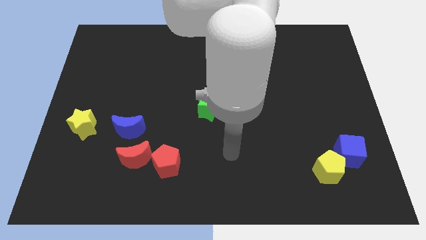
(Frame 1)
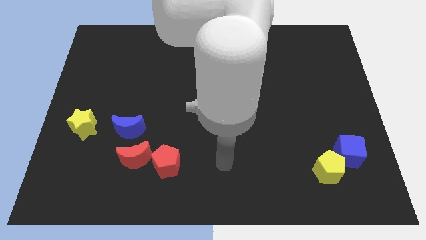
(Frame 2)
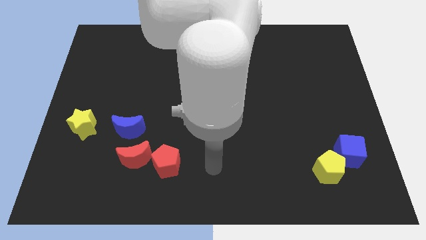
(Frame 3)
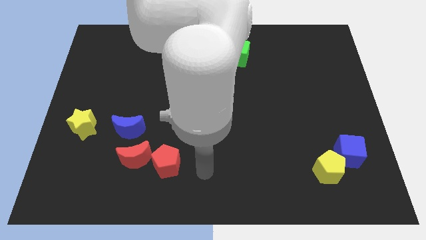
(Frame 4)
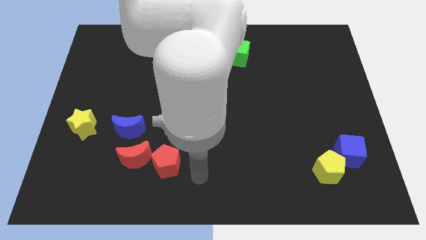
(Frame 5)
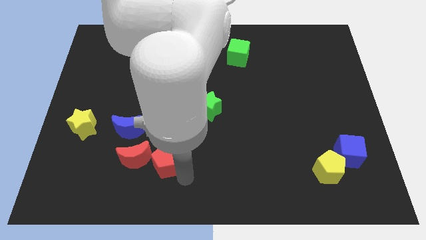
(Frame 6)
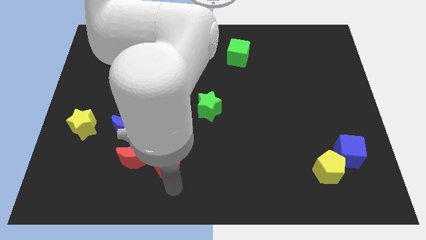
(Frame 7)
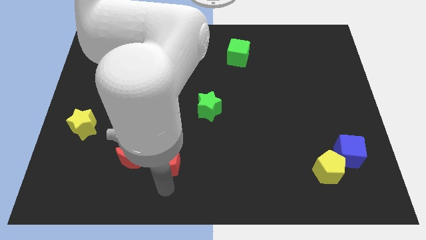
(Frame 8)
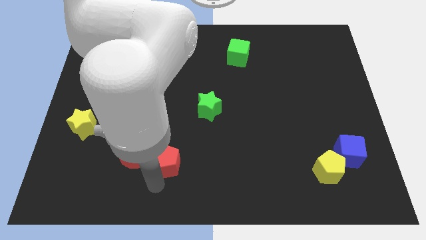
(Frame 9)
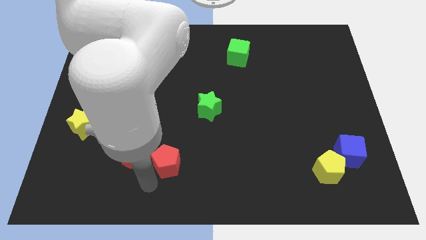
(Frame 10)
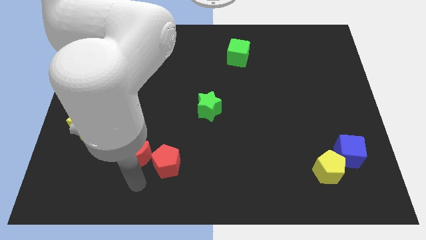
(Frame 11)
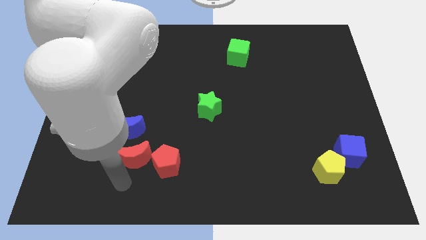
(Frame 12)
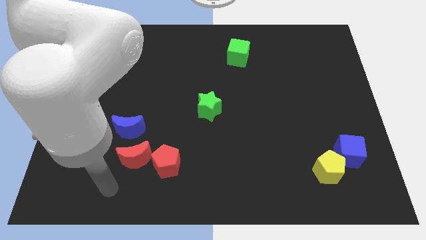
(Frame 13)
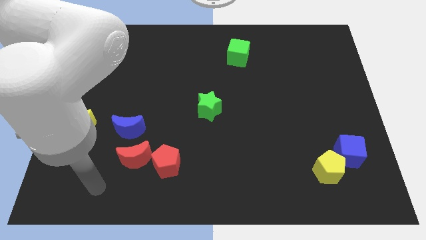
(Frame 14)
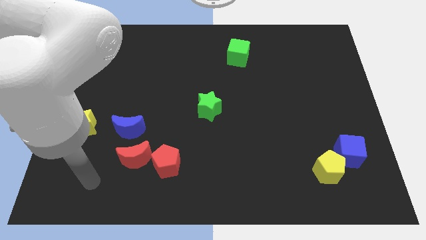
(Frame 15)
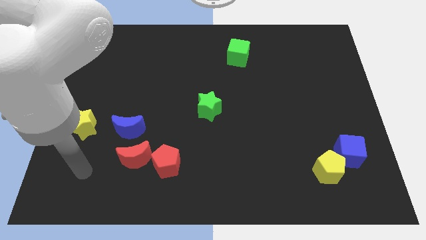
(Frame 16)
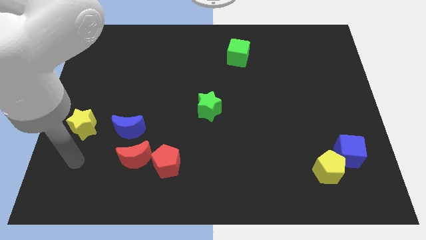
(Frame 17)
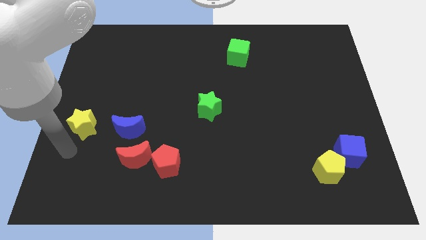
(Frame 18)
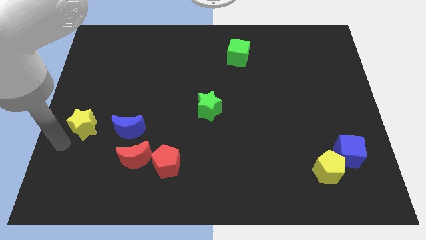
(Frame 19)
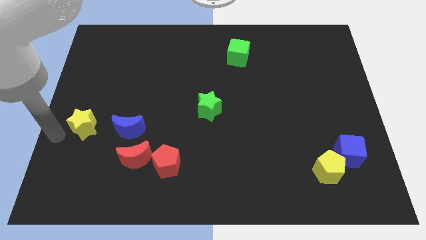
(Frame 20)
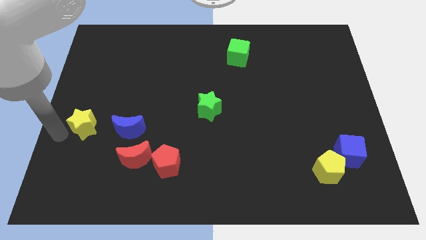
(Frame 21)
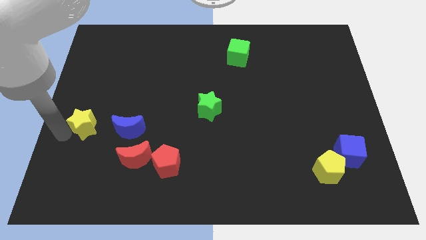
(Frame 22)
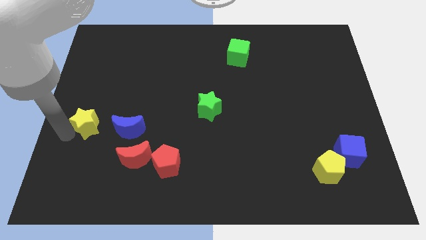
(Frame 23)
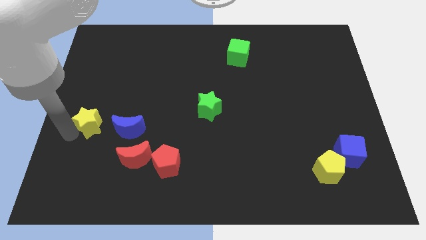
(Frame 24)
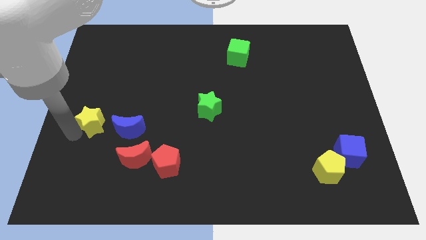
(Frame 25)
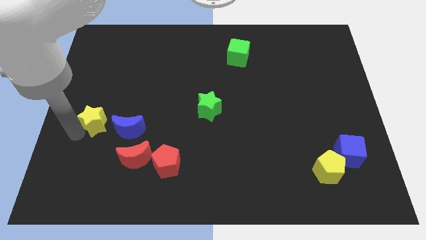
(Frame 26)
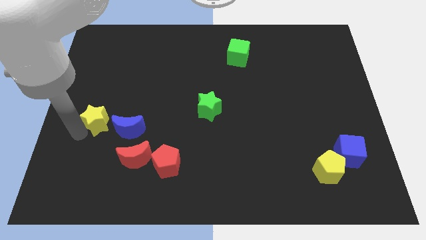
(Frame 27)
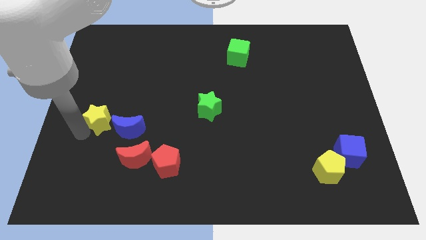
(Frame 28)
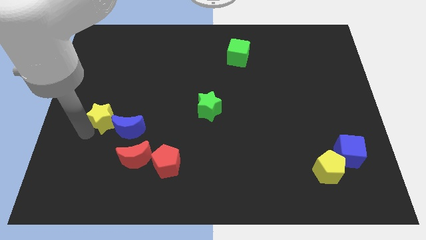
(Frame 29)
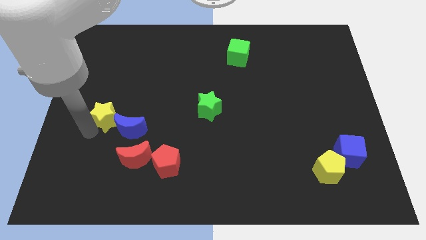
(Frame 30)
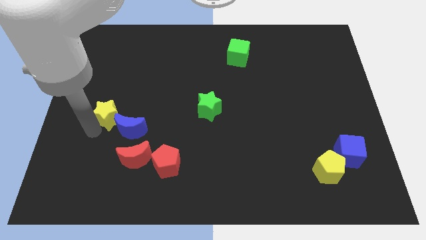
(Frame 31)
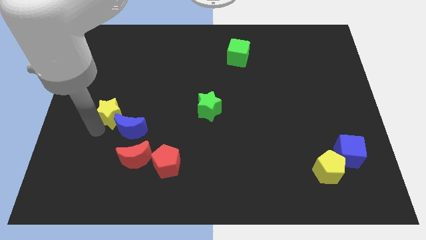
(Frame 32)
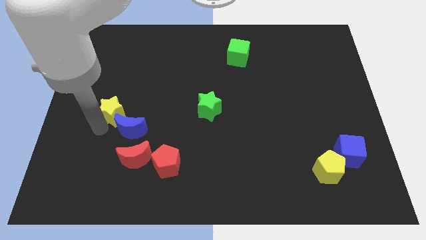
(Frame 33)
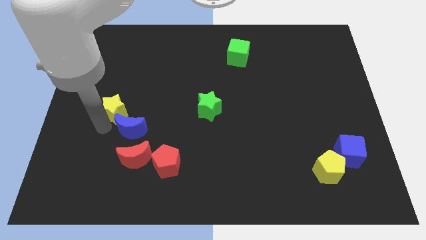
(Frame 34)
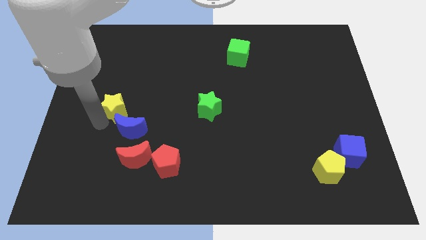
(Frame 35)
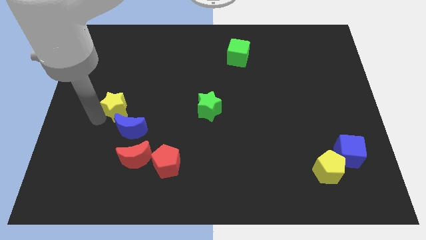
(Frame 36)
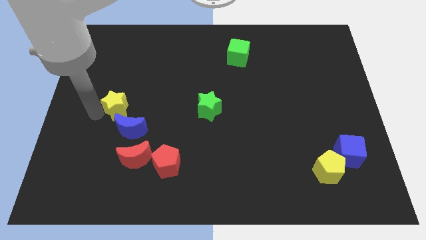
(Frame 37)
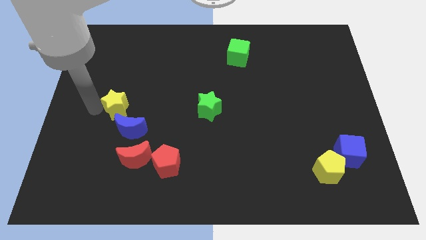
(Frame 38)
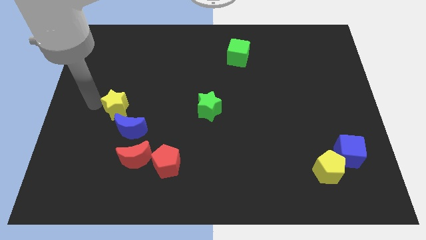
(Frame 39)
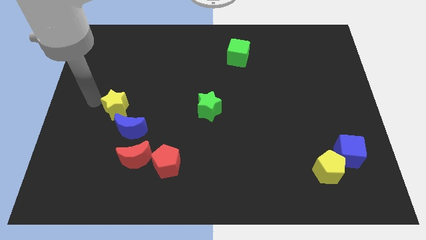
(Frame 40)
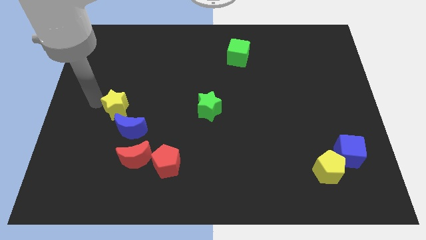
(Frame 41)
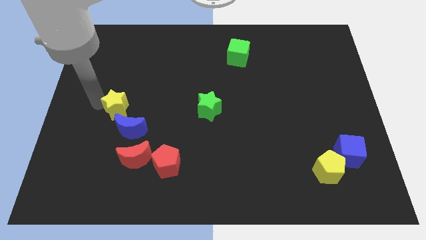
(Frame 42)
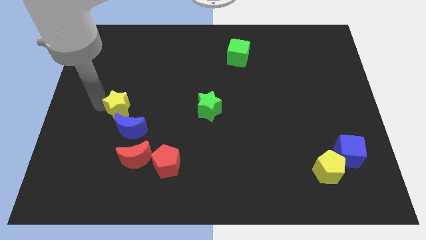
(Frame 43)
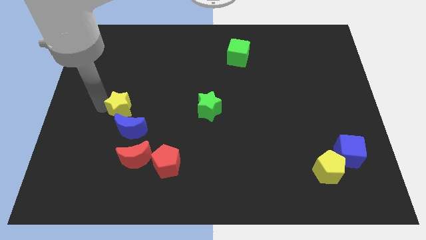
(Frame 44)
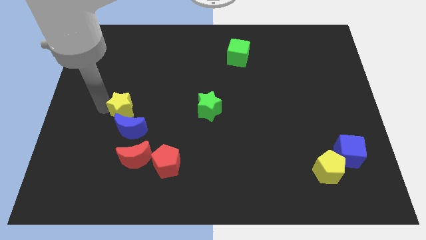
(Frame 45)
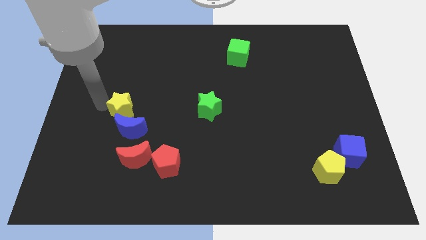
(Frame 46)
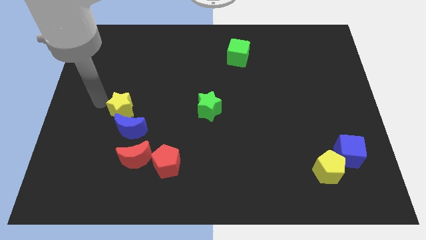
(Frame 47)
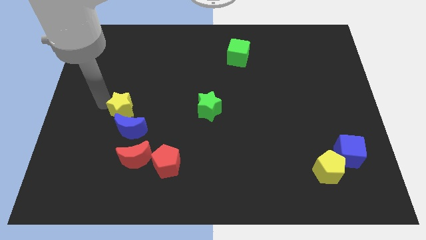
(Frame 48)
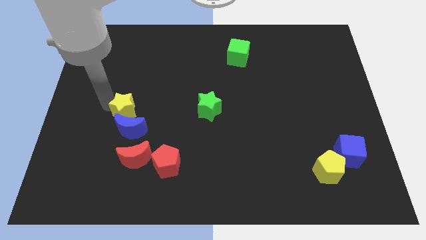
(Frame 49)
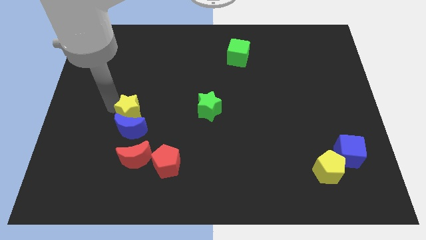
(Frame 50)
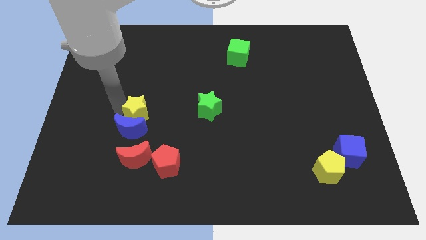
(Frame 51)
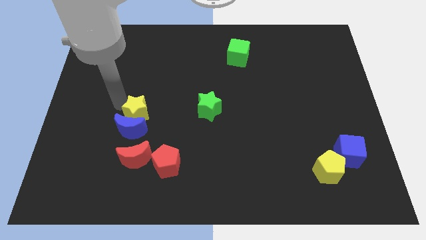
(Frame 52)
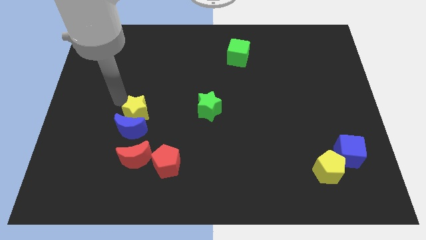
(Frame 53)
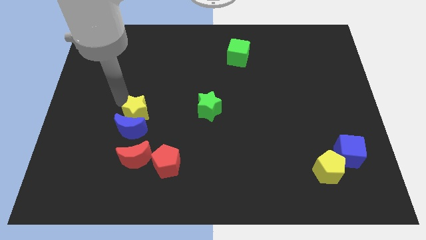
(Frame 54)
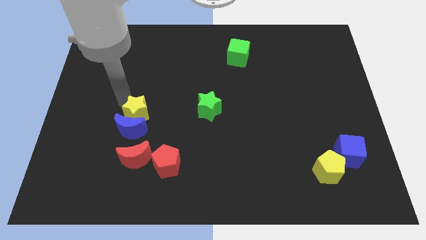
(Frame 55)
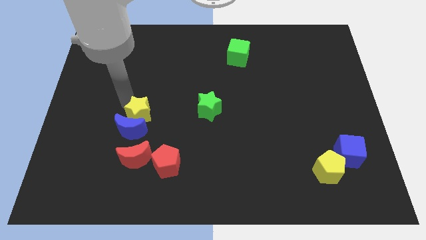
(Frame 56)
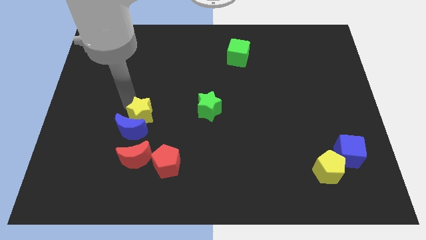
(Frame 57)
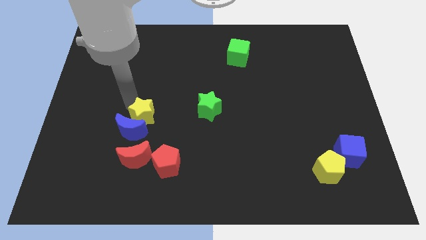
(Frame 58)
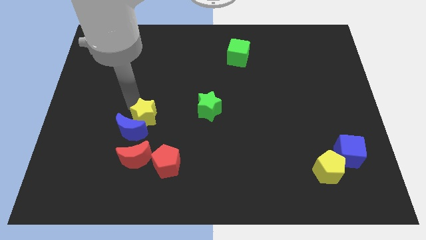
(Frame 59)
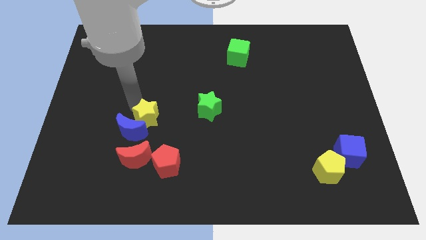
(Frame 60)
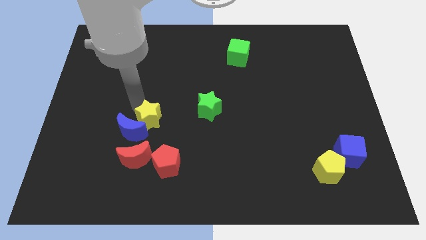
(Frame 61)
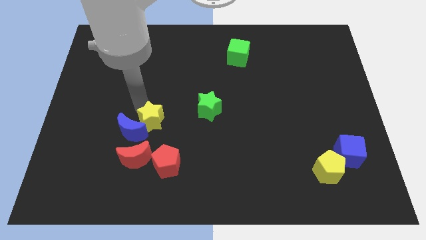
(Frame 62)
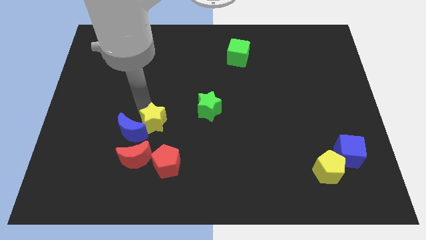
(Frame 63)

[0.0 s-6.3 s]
move the yellow star to the top right side of the red moon

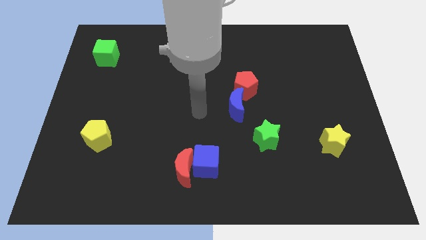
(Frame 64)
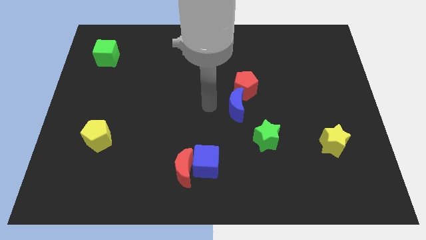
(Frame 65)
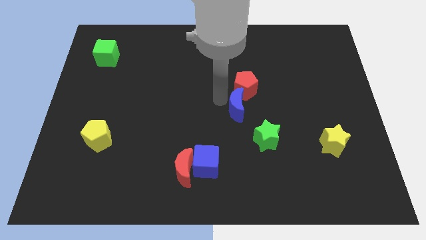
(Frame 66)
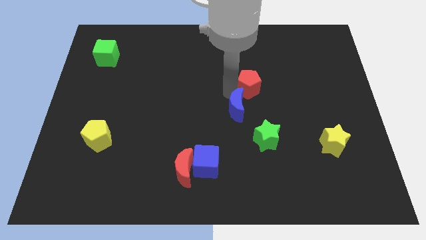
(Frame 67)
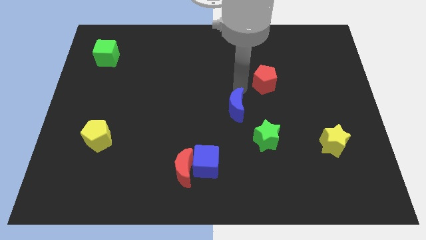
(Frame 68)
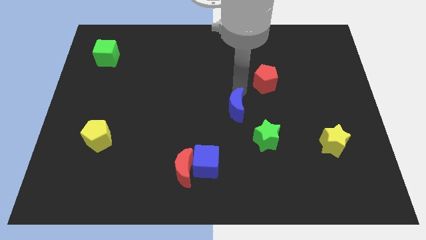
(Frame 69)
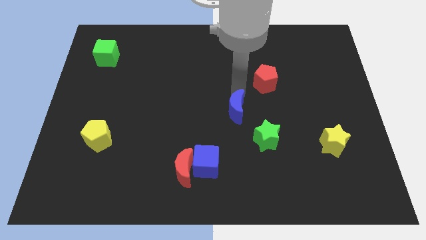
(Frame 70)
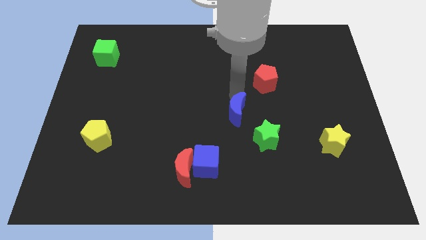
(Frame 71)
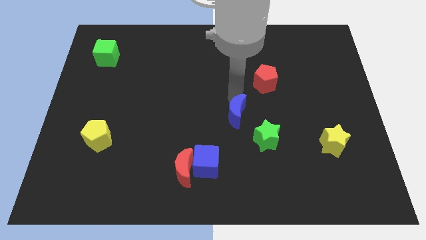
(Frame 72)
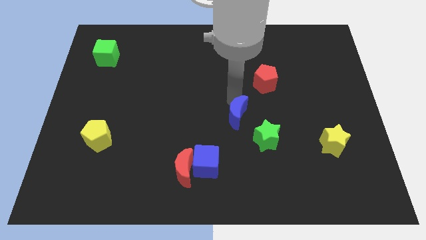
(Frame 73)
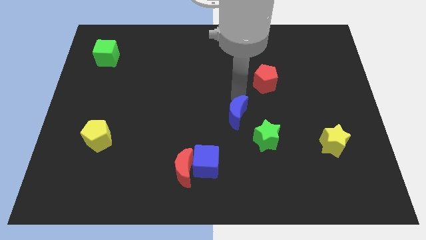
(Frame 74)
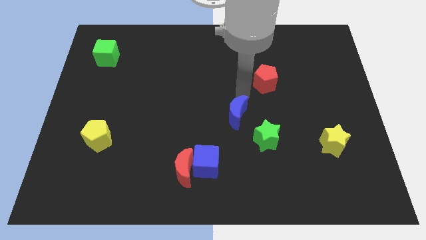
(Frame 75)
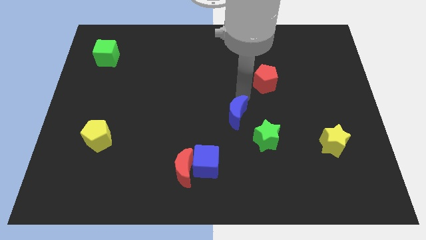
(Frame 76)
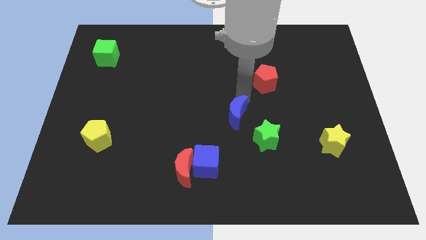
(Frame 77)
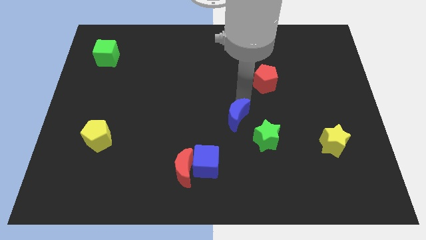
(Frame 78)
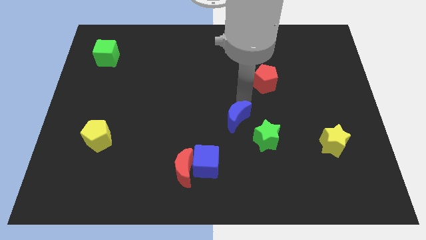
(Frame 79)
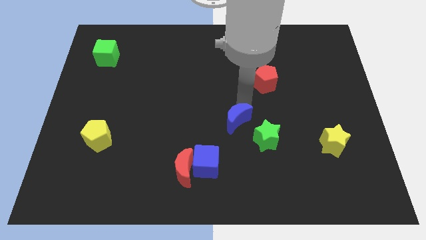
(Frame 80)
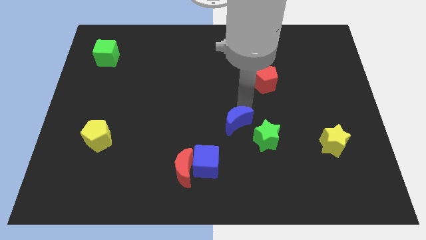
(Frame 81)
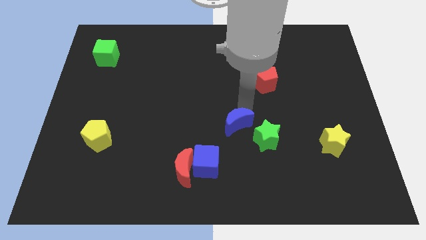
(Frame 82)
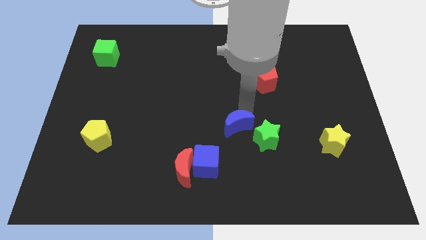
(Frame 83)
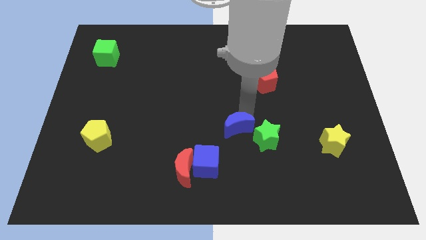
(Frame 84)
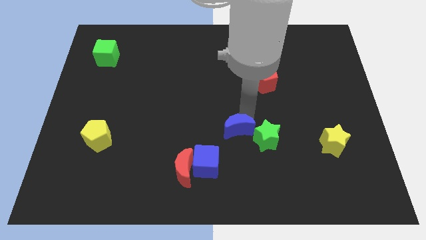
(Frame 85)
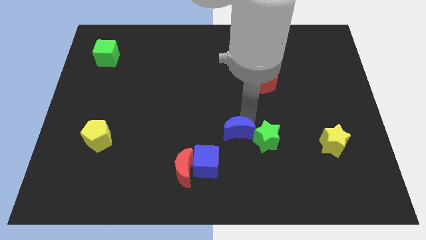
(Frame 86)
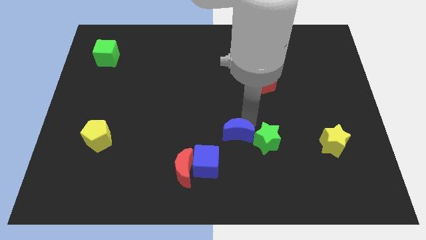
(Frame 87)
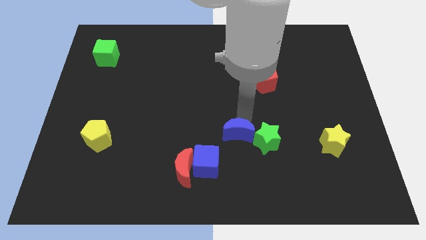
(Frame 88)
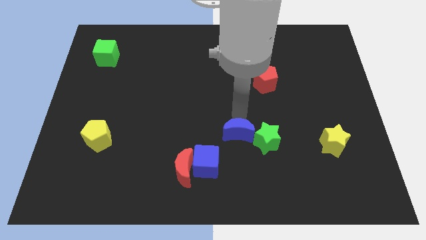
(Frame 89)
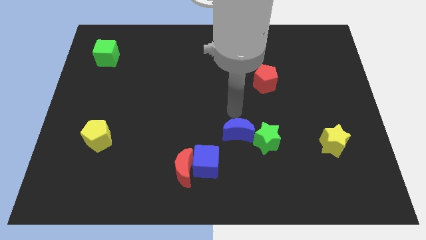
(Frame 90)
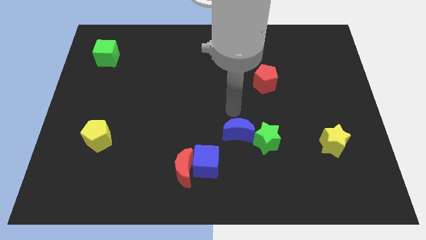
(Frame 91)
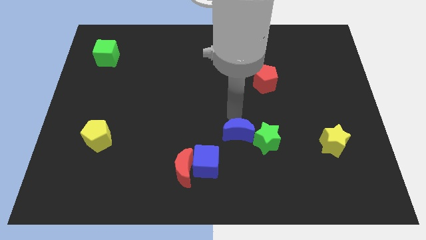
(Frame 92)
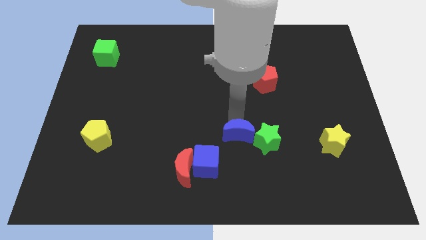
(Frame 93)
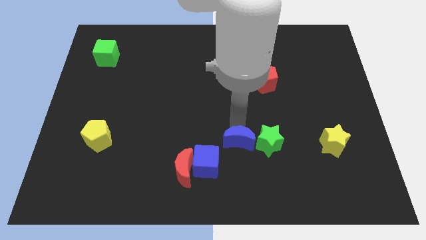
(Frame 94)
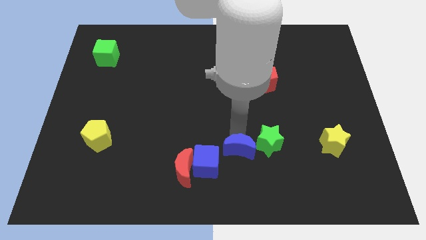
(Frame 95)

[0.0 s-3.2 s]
slide the blue moon to the bottom left side of the green star
